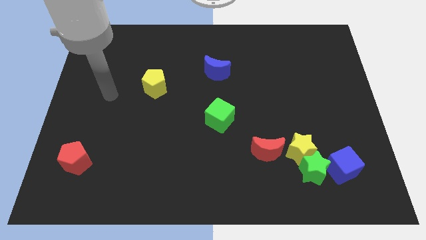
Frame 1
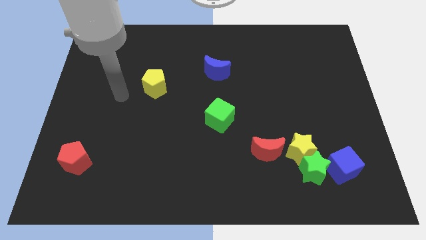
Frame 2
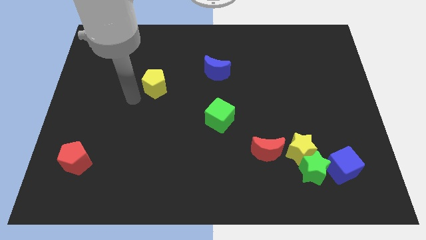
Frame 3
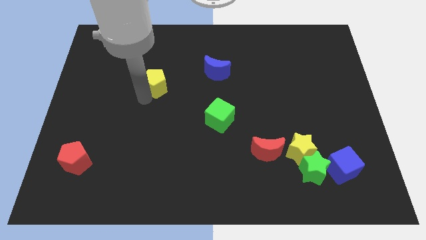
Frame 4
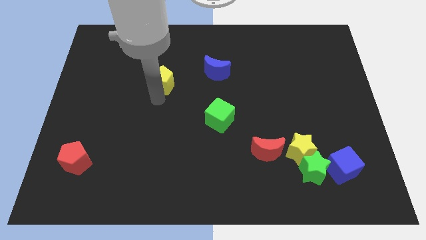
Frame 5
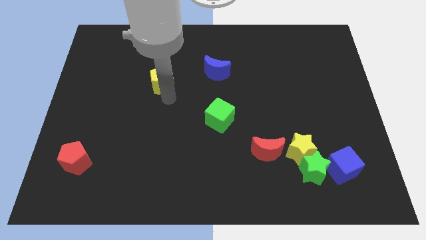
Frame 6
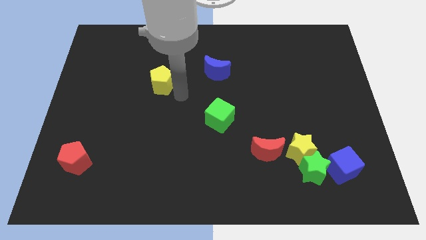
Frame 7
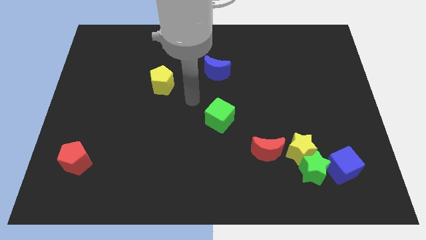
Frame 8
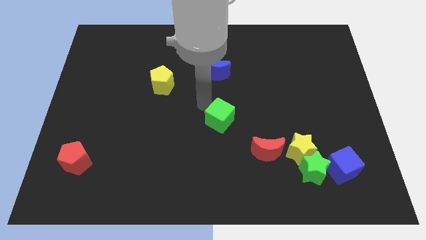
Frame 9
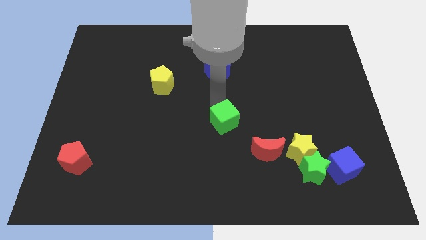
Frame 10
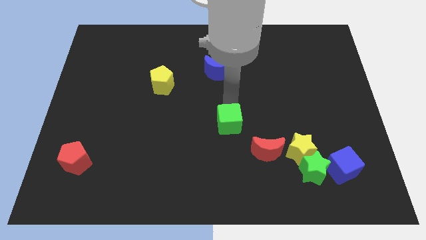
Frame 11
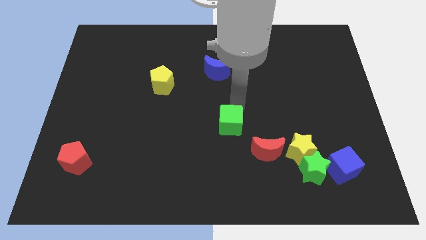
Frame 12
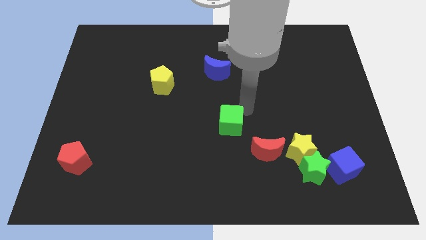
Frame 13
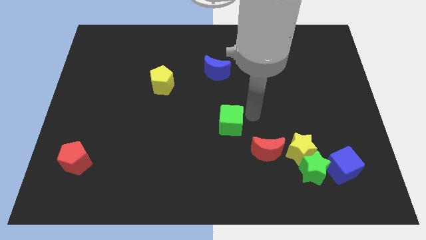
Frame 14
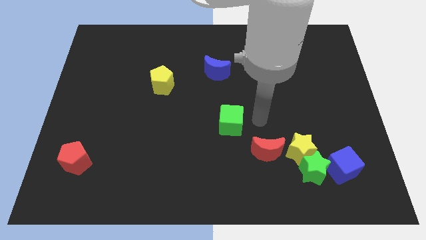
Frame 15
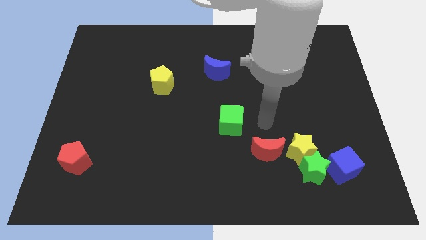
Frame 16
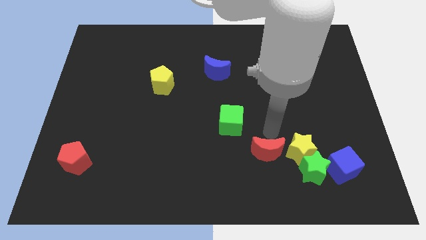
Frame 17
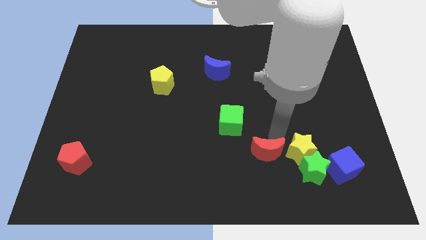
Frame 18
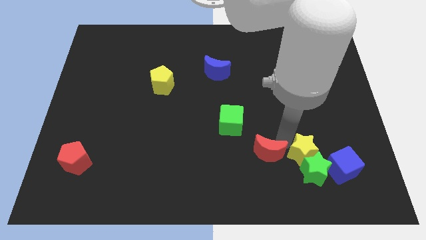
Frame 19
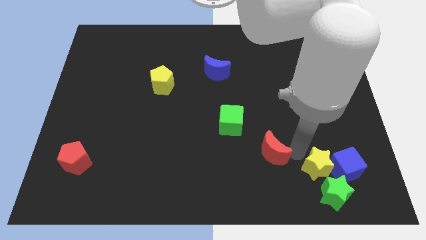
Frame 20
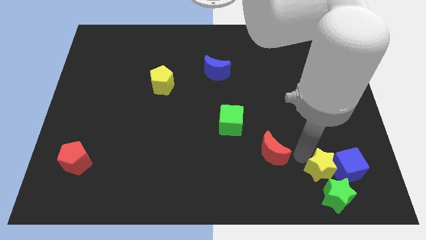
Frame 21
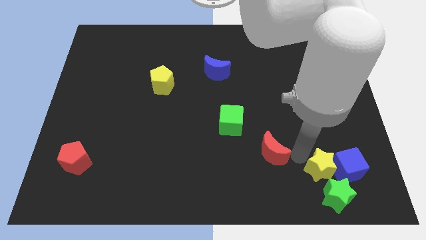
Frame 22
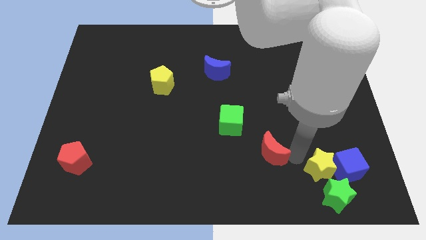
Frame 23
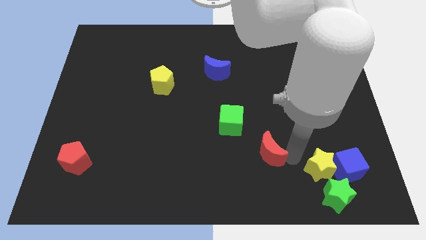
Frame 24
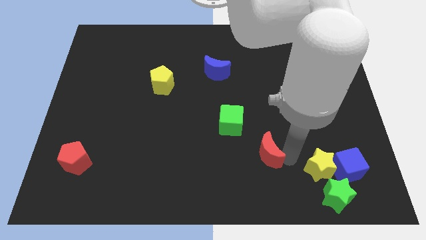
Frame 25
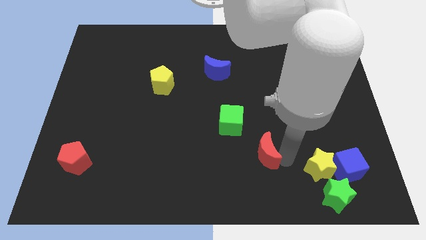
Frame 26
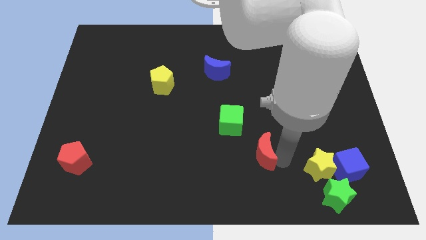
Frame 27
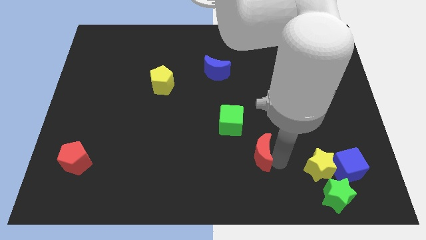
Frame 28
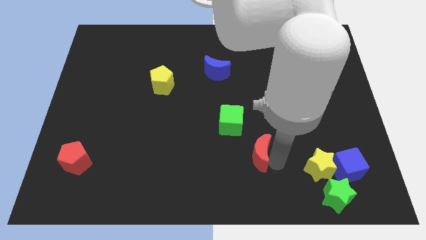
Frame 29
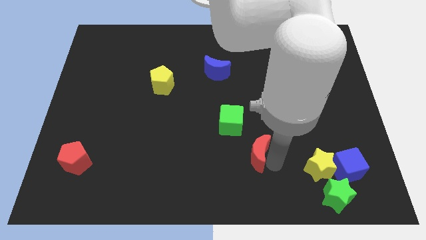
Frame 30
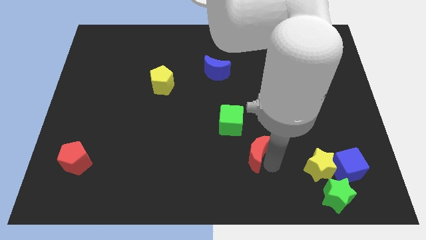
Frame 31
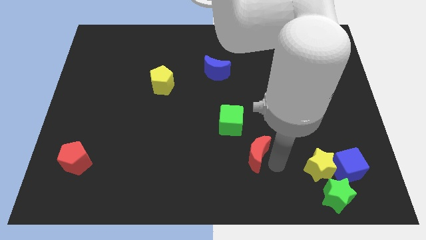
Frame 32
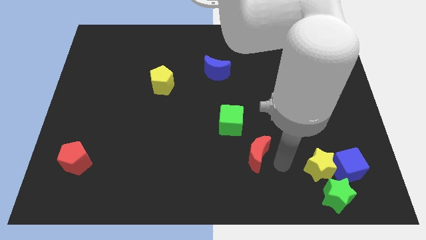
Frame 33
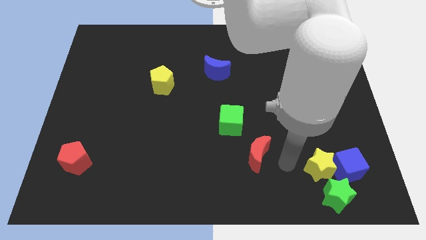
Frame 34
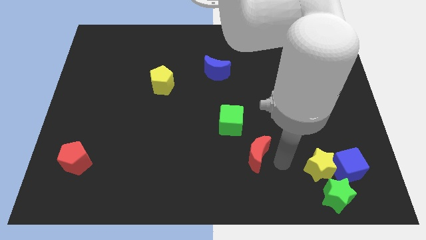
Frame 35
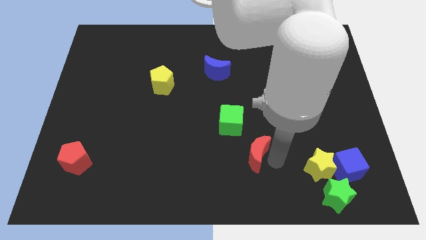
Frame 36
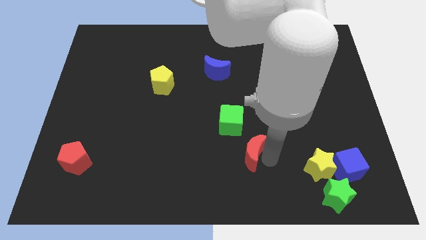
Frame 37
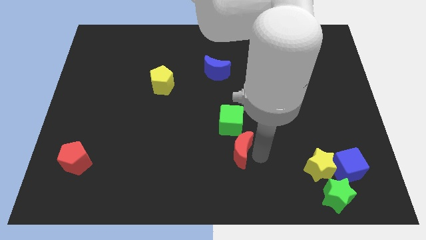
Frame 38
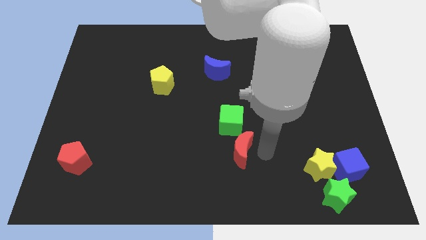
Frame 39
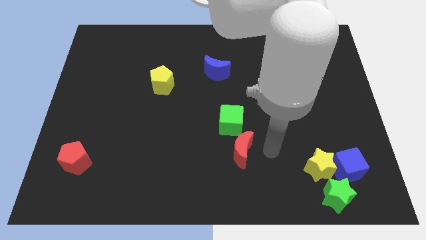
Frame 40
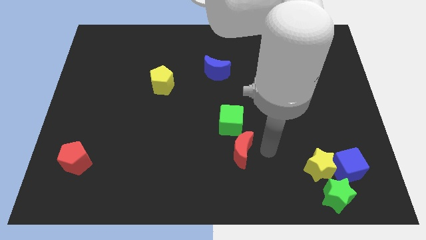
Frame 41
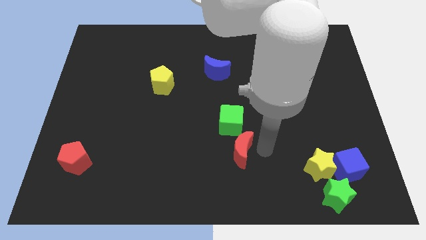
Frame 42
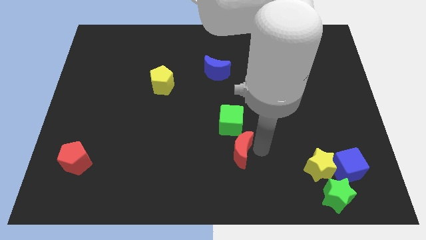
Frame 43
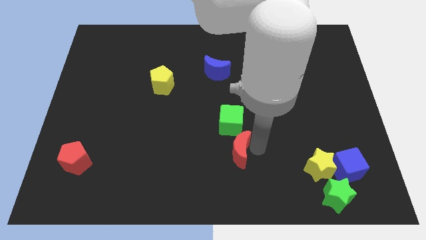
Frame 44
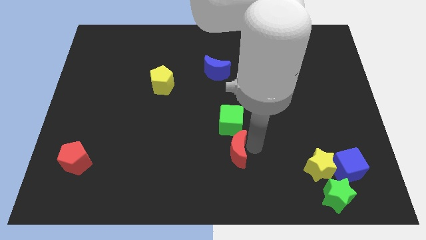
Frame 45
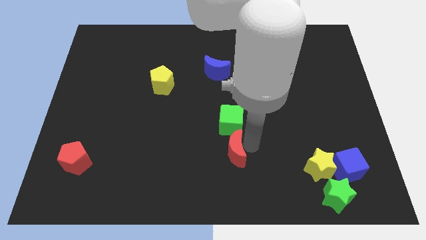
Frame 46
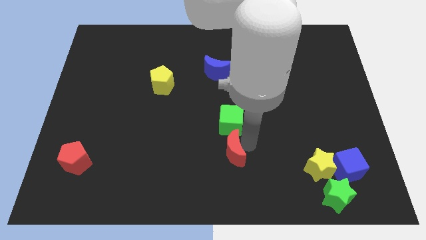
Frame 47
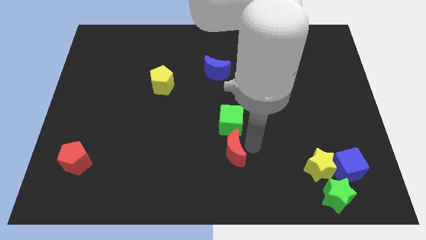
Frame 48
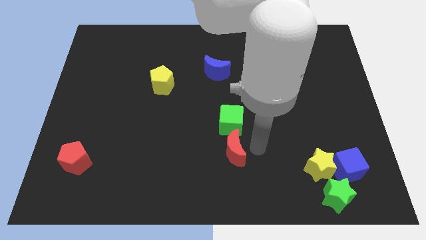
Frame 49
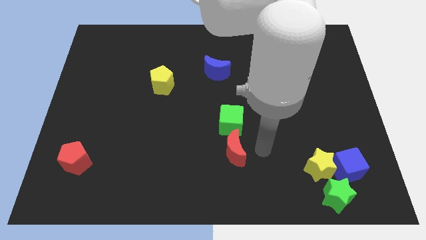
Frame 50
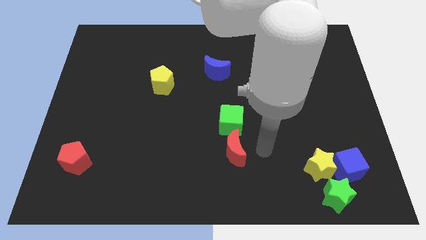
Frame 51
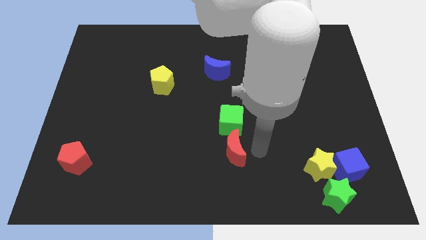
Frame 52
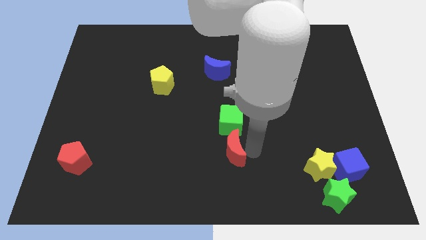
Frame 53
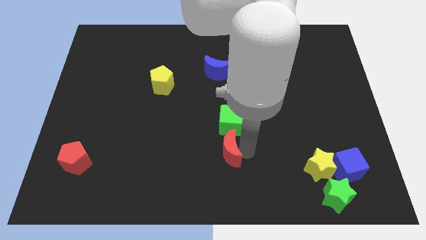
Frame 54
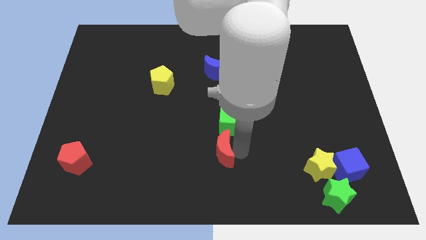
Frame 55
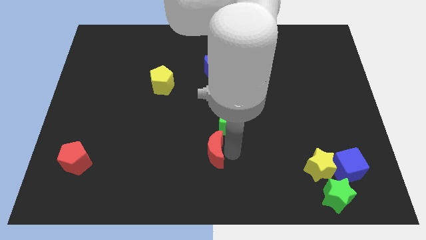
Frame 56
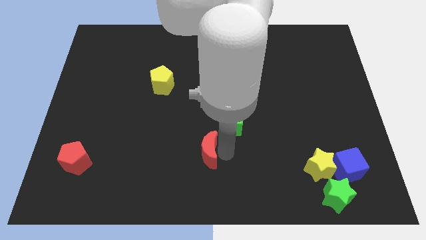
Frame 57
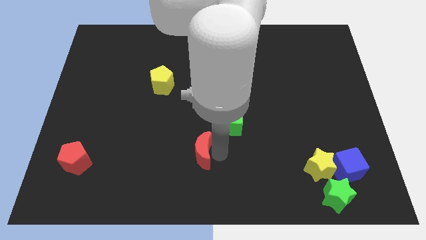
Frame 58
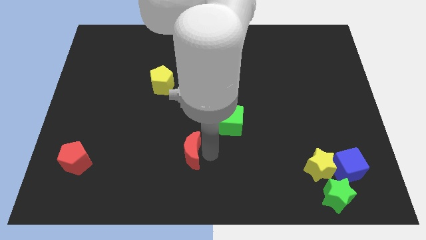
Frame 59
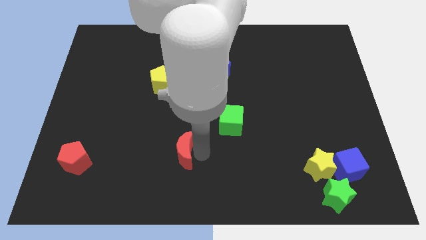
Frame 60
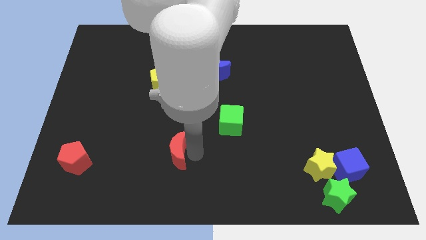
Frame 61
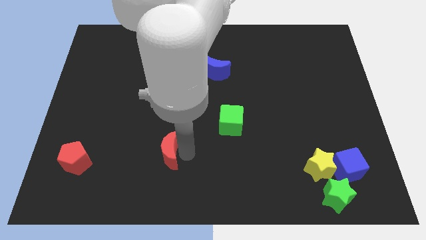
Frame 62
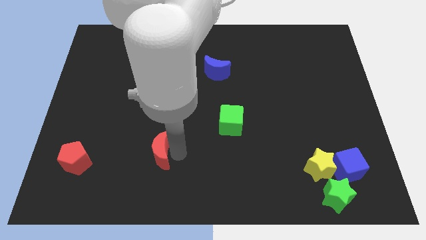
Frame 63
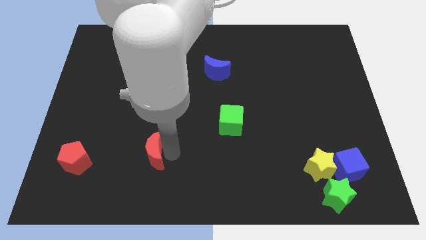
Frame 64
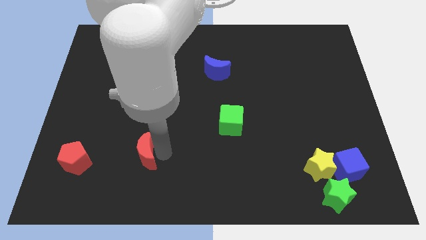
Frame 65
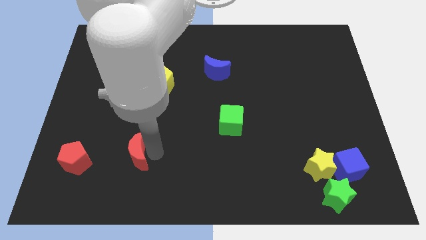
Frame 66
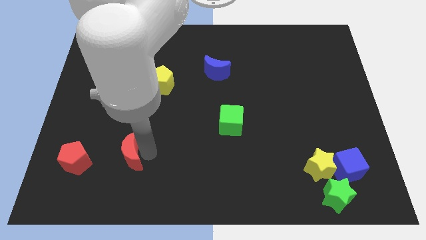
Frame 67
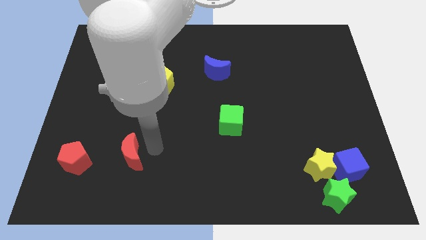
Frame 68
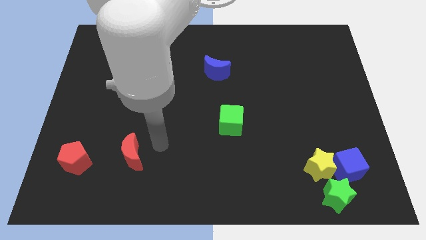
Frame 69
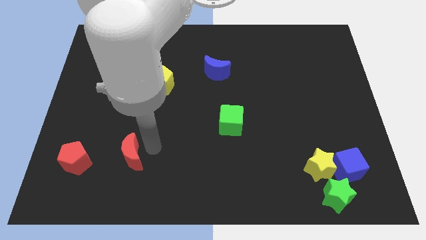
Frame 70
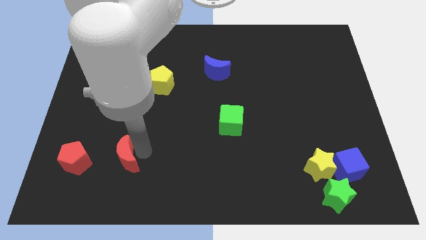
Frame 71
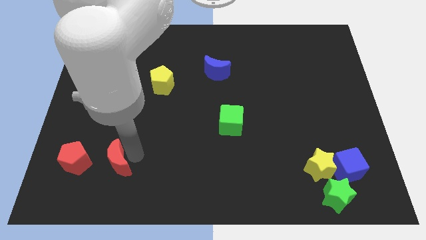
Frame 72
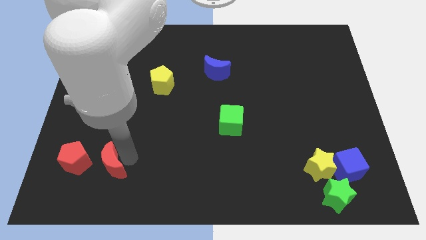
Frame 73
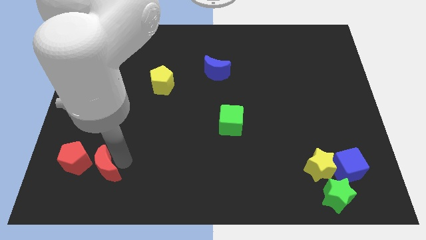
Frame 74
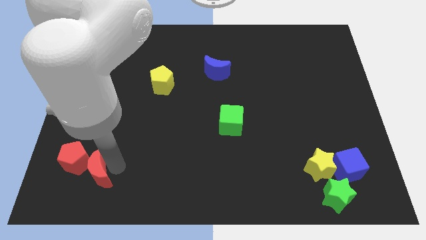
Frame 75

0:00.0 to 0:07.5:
push the red moon next to the red pentagon
